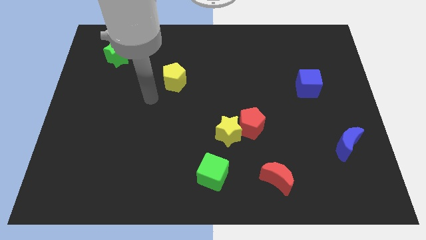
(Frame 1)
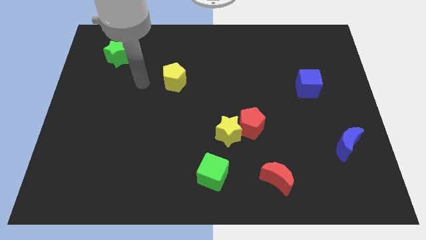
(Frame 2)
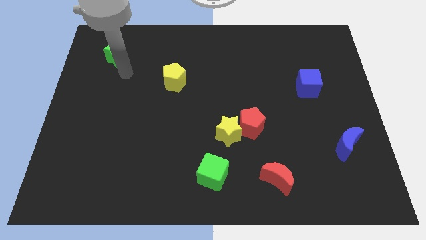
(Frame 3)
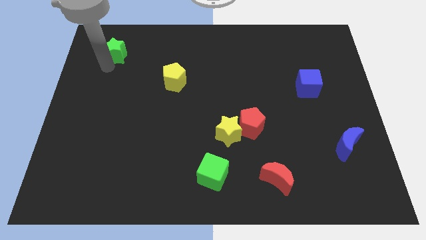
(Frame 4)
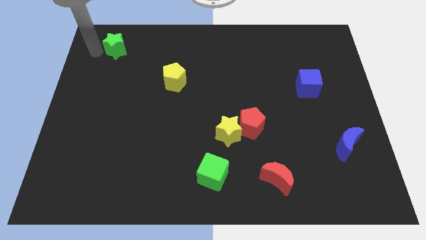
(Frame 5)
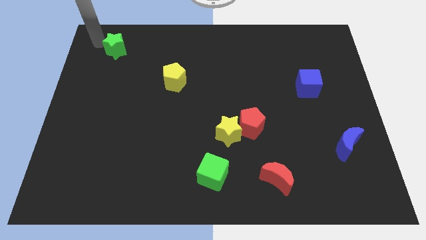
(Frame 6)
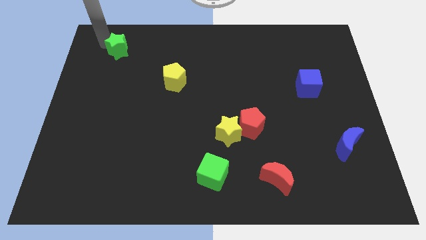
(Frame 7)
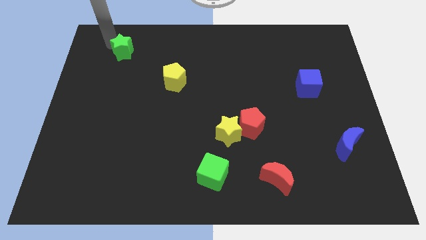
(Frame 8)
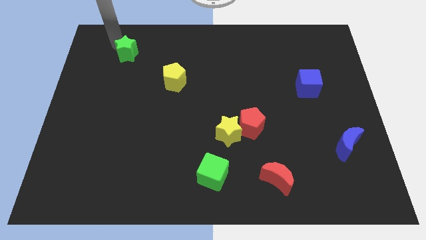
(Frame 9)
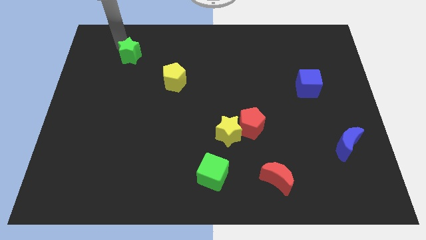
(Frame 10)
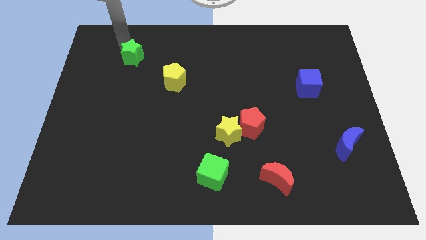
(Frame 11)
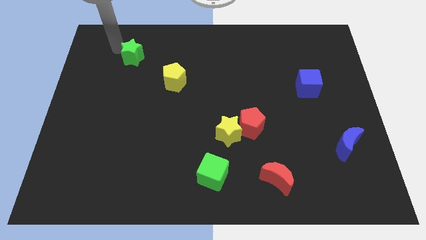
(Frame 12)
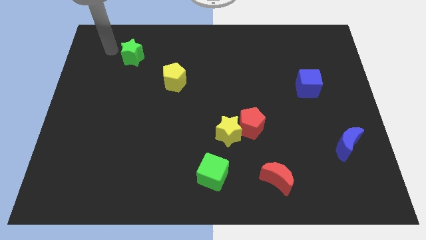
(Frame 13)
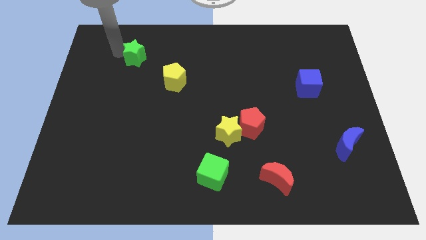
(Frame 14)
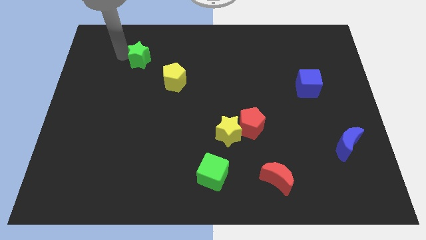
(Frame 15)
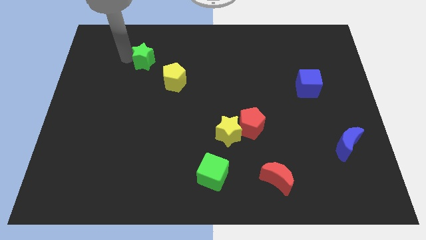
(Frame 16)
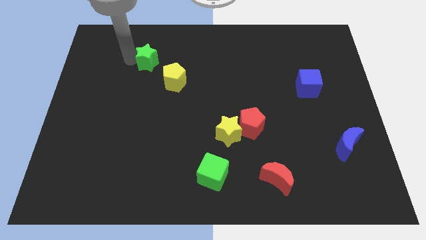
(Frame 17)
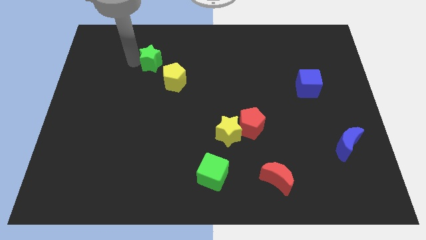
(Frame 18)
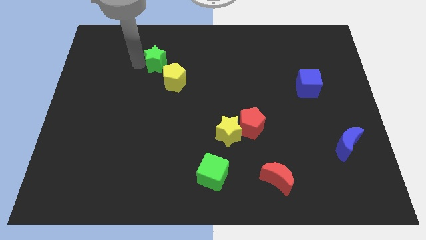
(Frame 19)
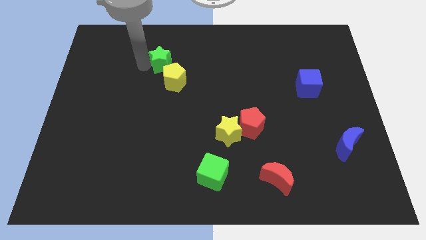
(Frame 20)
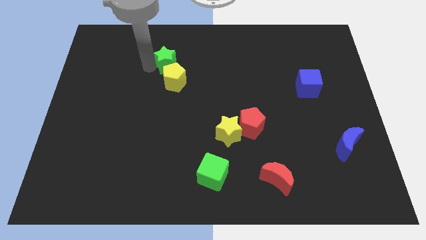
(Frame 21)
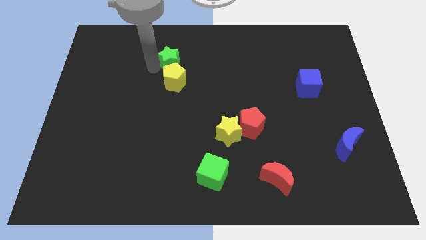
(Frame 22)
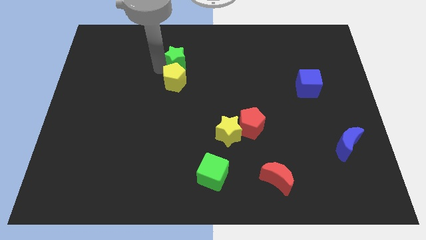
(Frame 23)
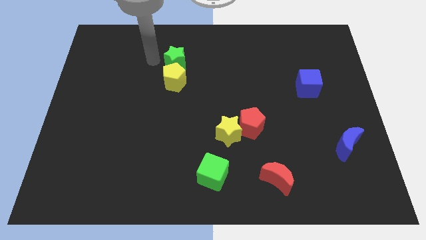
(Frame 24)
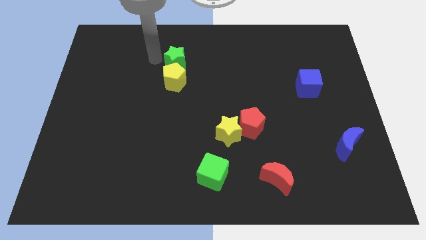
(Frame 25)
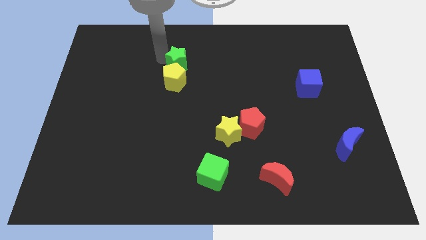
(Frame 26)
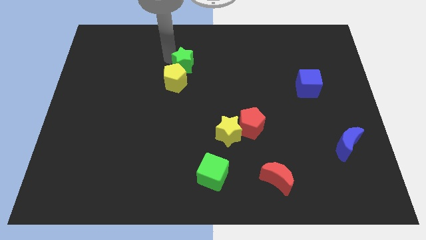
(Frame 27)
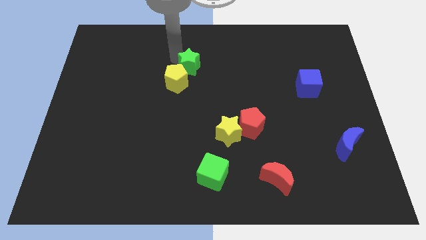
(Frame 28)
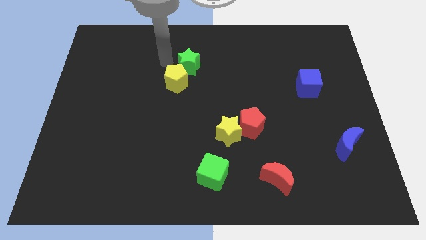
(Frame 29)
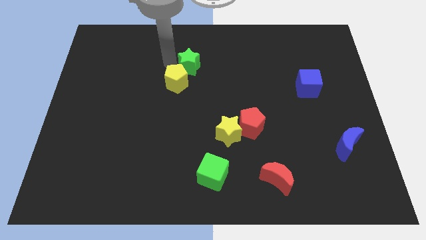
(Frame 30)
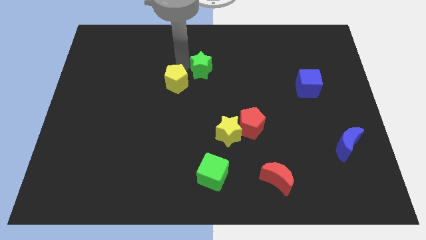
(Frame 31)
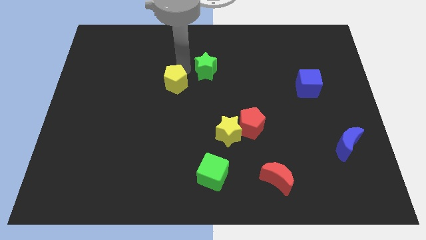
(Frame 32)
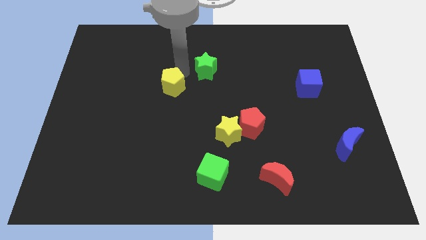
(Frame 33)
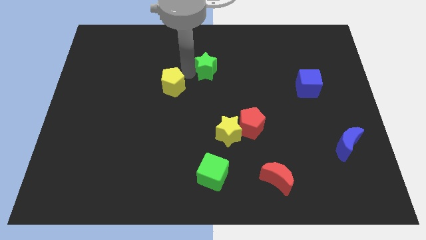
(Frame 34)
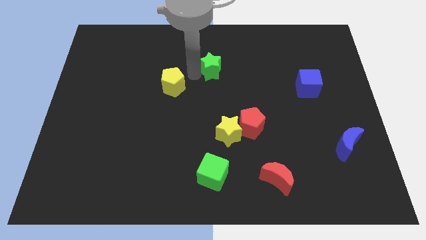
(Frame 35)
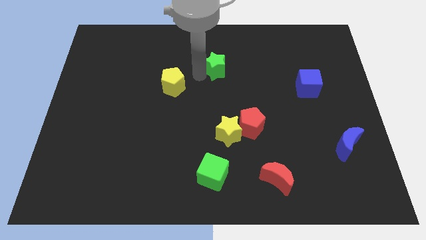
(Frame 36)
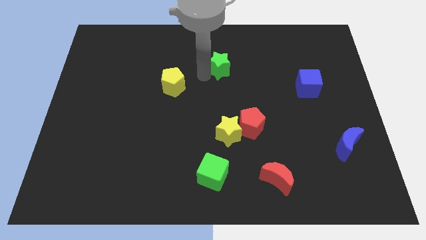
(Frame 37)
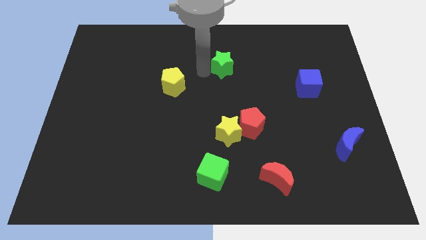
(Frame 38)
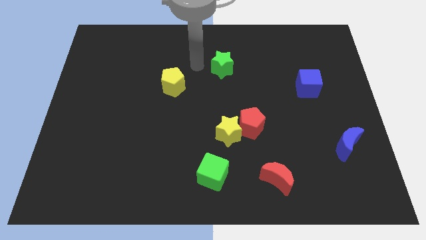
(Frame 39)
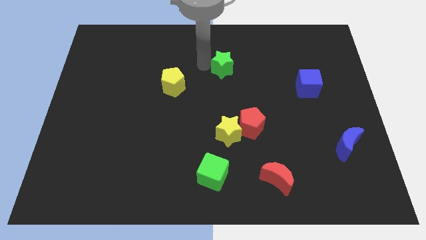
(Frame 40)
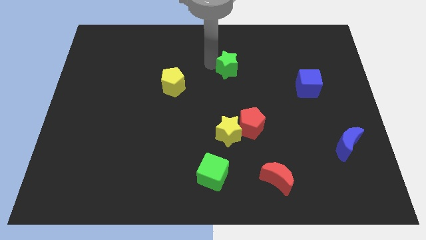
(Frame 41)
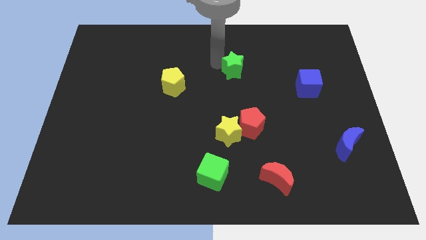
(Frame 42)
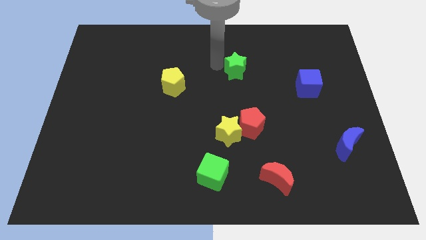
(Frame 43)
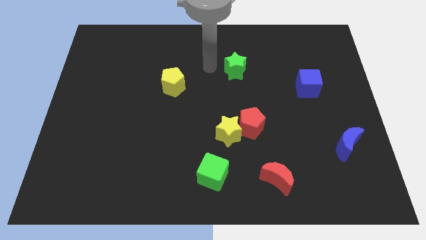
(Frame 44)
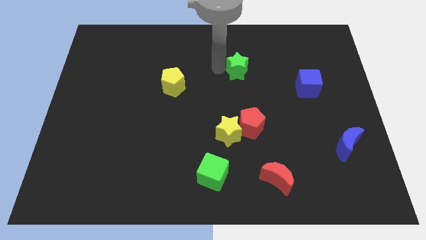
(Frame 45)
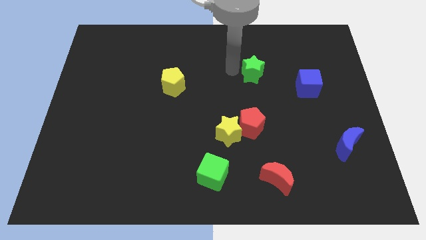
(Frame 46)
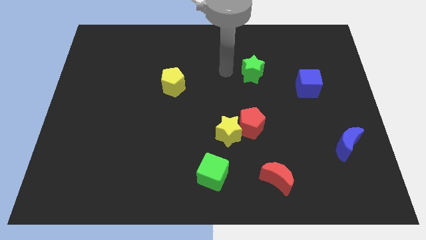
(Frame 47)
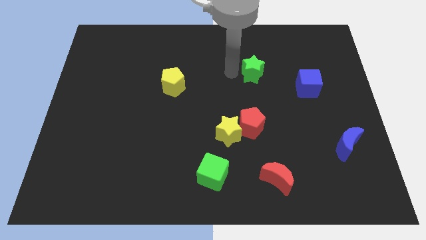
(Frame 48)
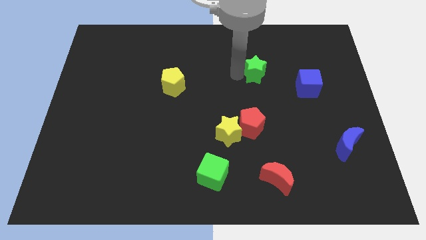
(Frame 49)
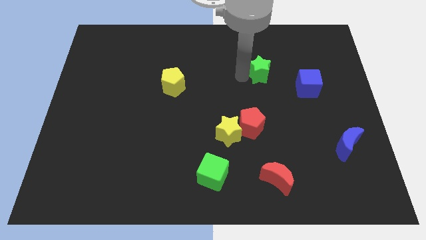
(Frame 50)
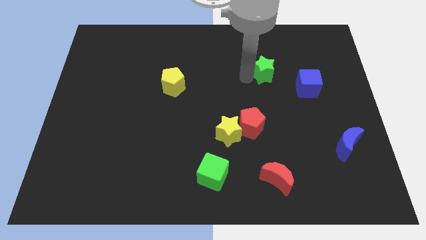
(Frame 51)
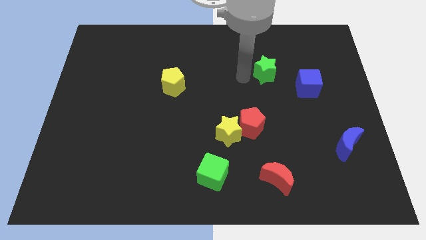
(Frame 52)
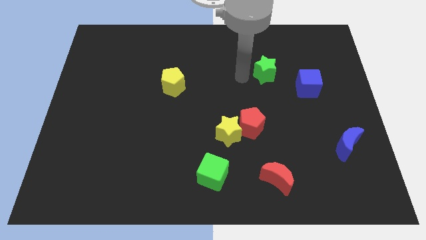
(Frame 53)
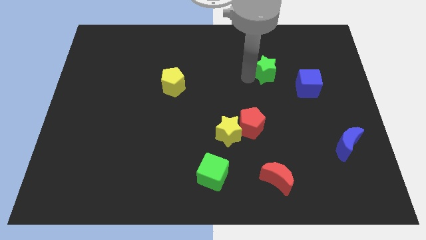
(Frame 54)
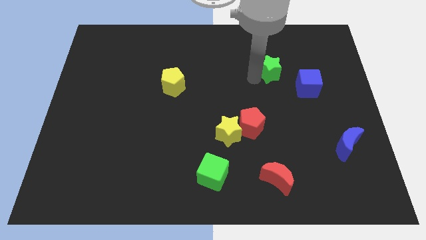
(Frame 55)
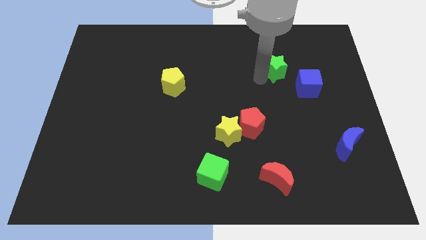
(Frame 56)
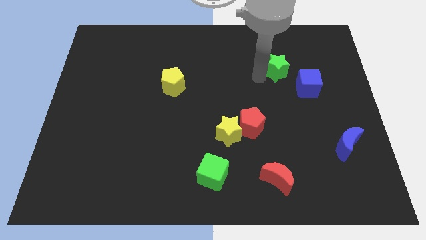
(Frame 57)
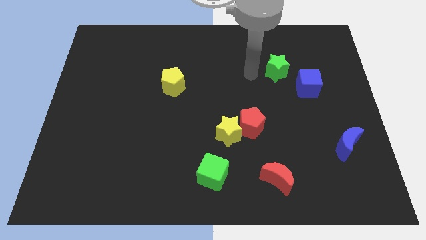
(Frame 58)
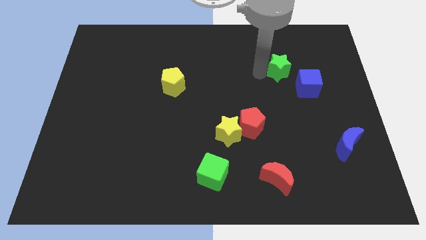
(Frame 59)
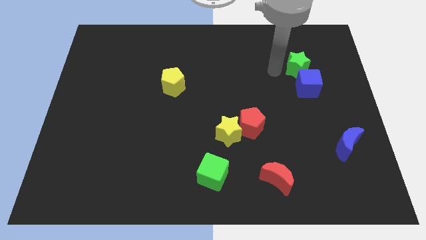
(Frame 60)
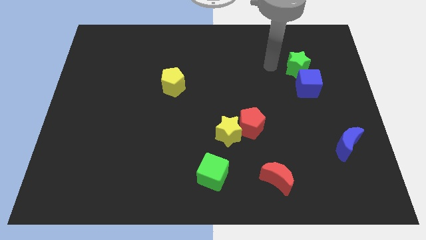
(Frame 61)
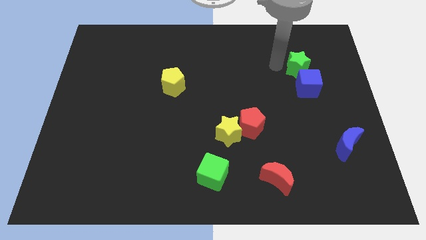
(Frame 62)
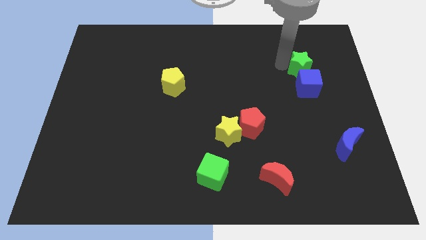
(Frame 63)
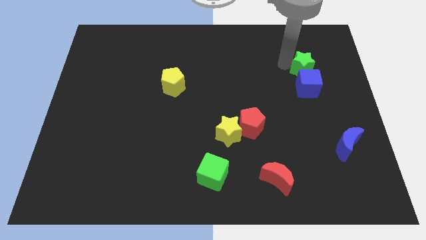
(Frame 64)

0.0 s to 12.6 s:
put the green star to the top right of the blue cube
